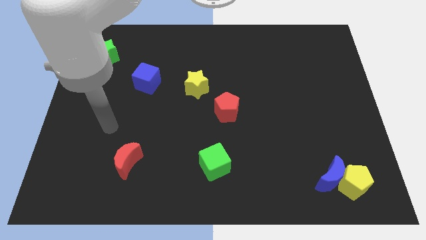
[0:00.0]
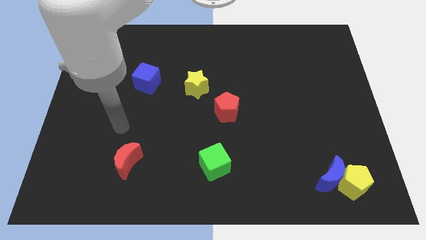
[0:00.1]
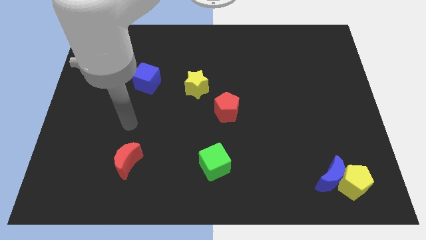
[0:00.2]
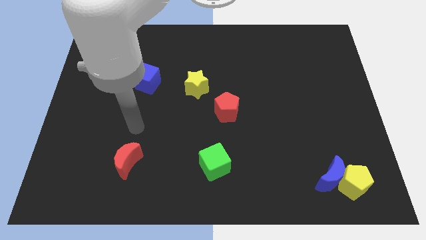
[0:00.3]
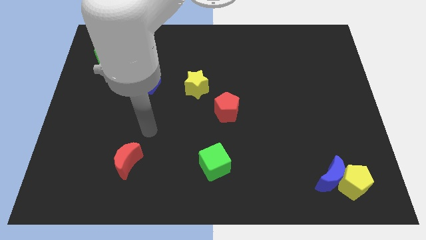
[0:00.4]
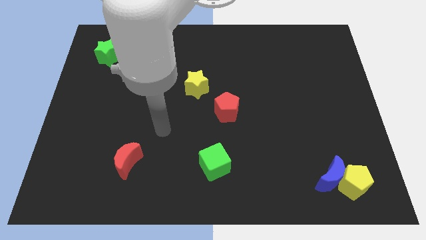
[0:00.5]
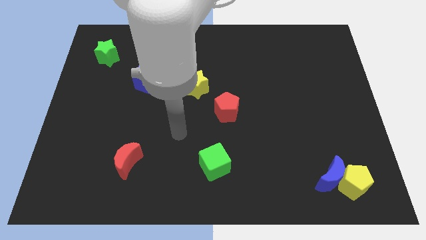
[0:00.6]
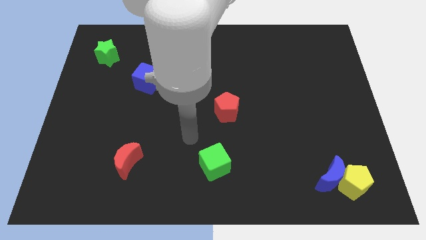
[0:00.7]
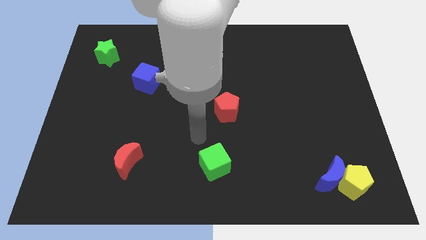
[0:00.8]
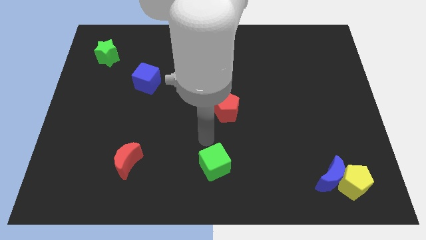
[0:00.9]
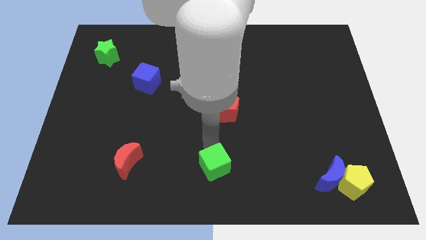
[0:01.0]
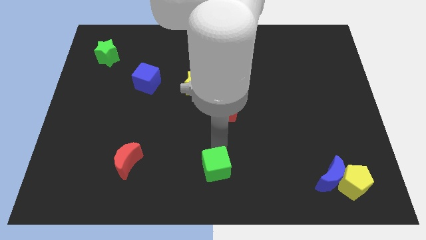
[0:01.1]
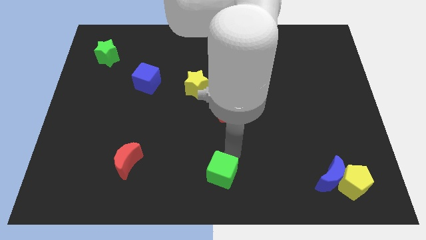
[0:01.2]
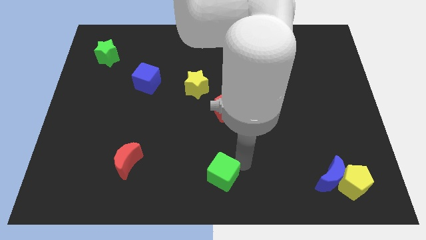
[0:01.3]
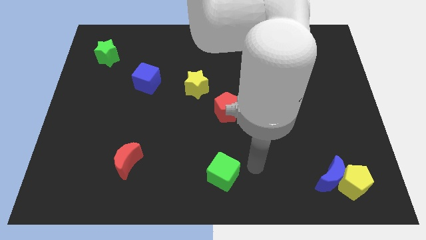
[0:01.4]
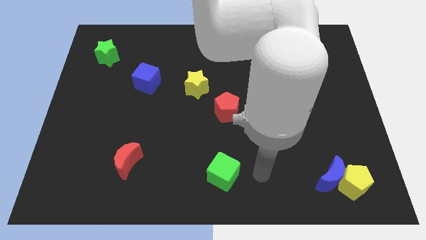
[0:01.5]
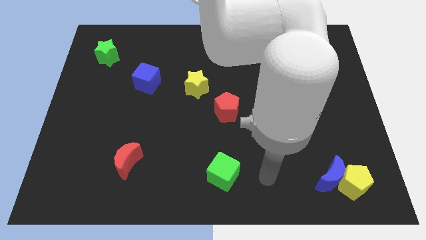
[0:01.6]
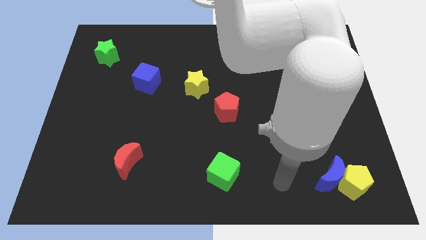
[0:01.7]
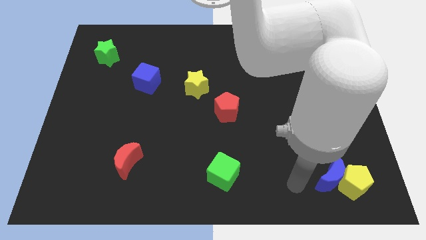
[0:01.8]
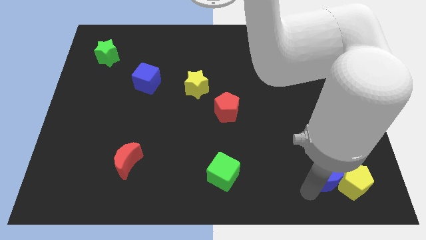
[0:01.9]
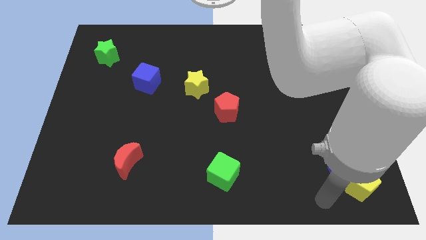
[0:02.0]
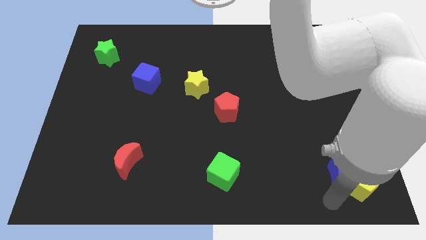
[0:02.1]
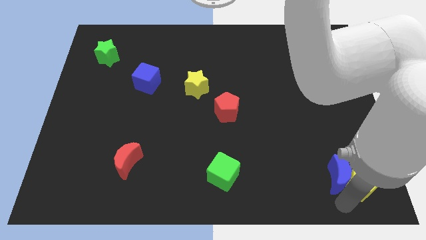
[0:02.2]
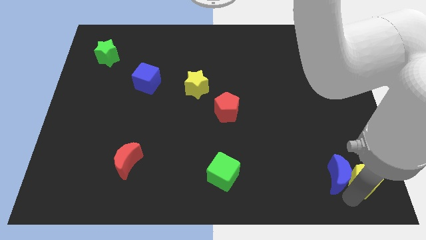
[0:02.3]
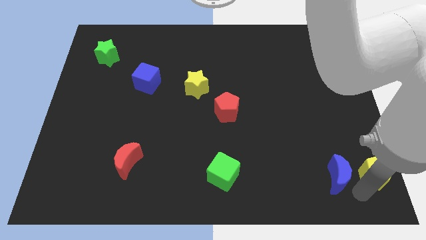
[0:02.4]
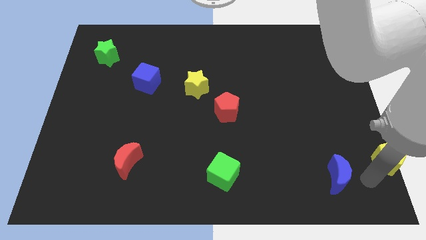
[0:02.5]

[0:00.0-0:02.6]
move the blue moon away from the yellow pentagon

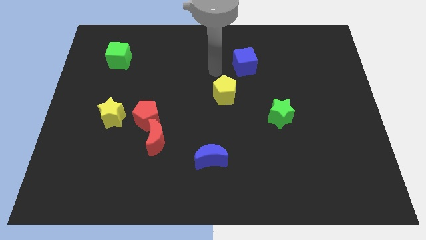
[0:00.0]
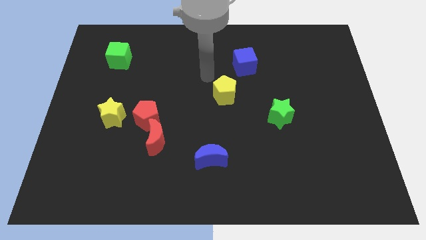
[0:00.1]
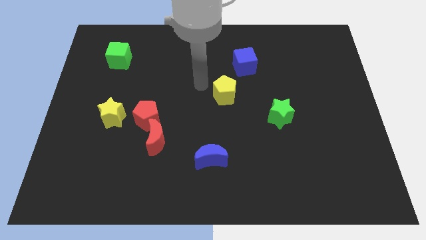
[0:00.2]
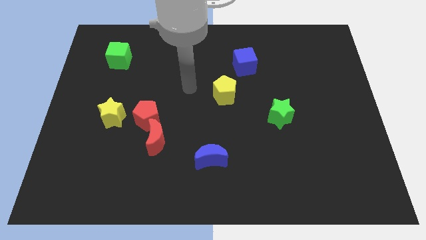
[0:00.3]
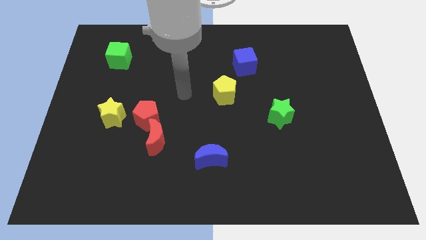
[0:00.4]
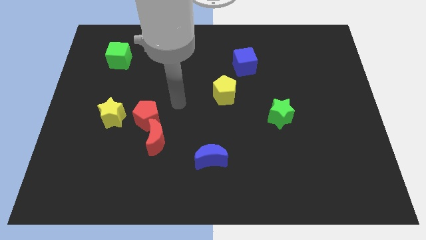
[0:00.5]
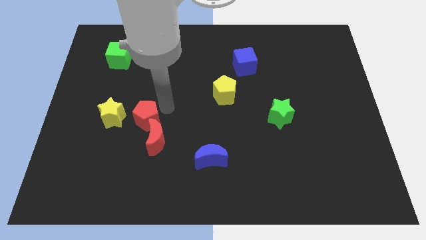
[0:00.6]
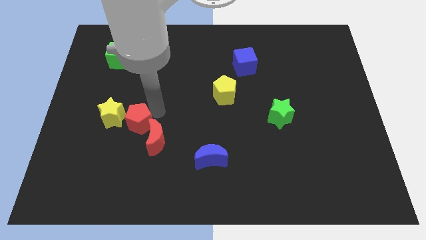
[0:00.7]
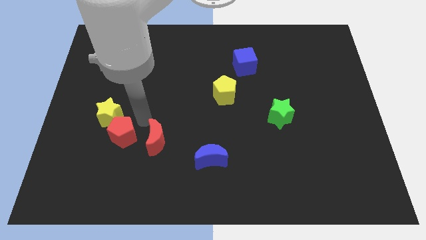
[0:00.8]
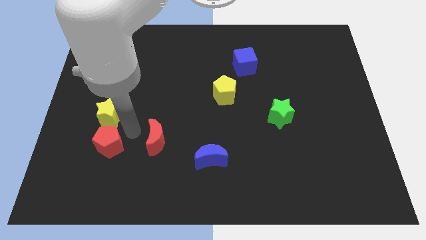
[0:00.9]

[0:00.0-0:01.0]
move the red moon away from the red pentagon

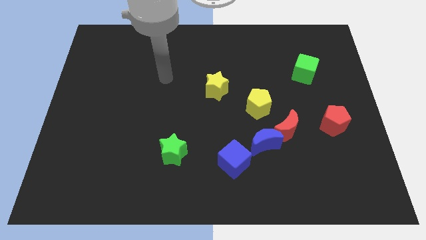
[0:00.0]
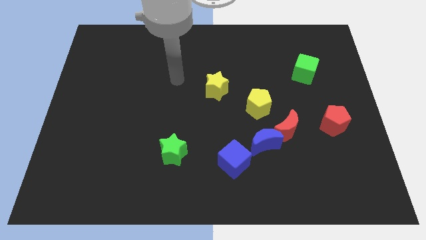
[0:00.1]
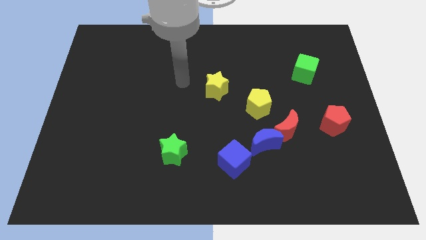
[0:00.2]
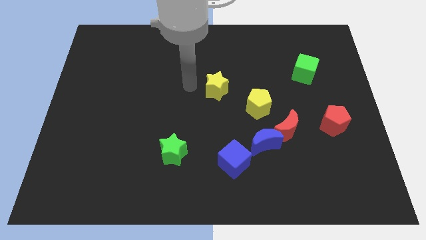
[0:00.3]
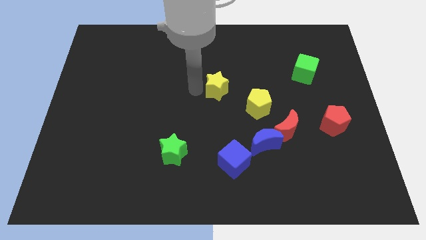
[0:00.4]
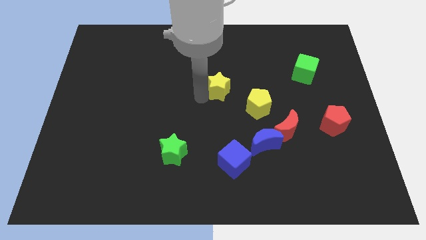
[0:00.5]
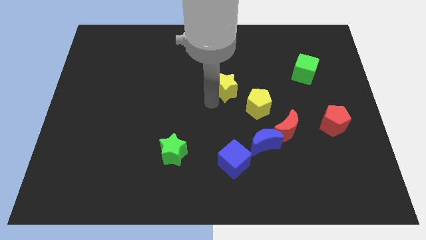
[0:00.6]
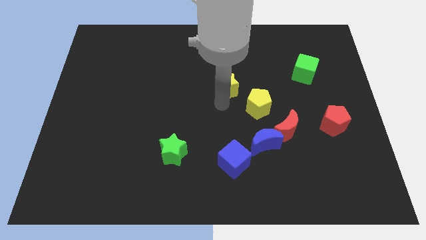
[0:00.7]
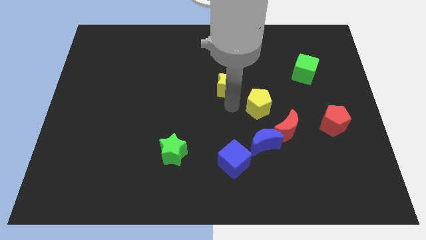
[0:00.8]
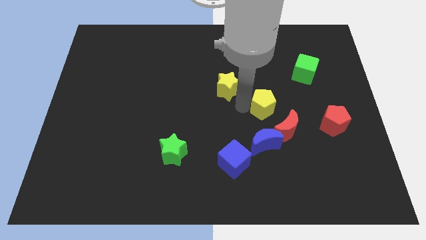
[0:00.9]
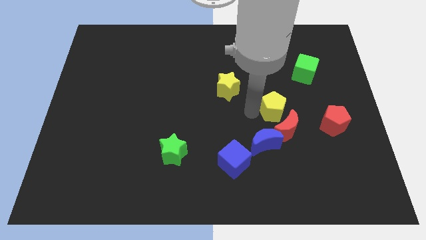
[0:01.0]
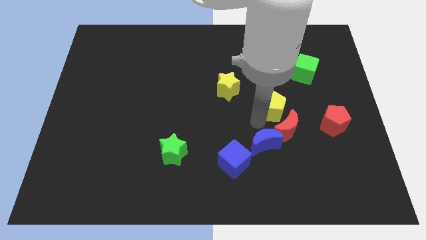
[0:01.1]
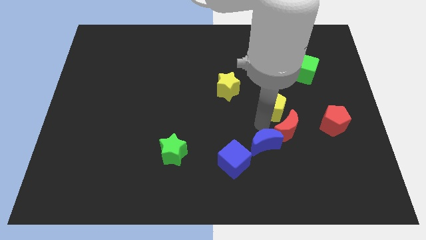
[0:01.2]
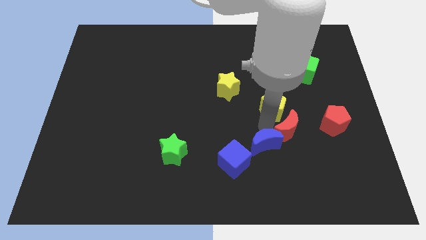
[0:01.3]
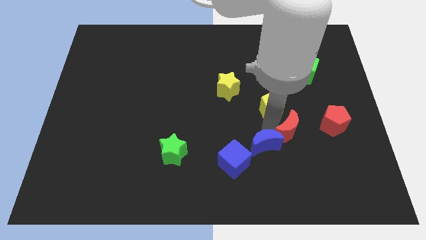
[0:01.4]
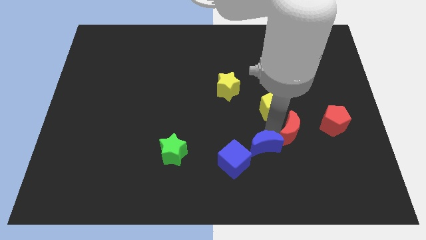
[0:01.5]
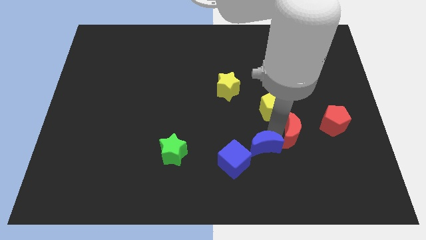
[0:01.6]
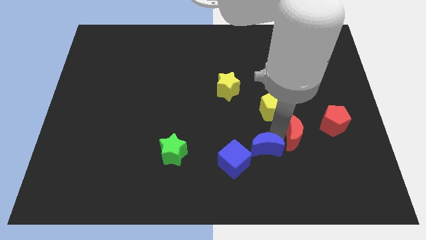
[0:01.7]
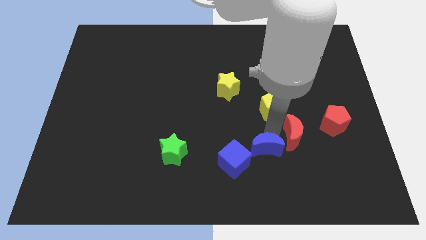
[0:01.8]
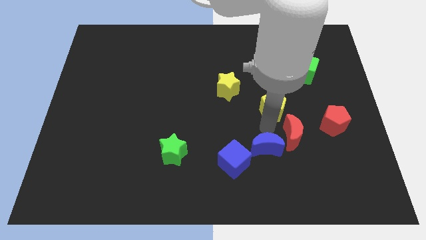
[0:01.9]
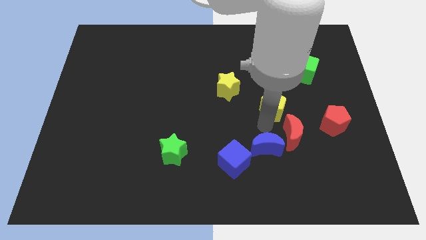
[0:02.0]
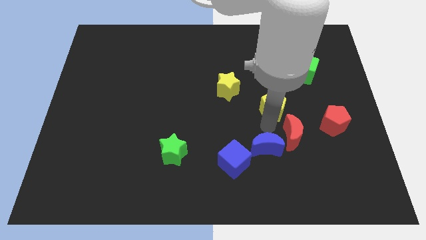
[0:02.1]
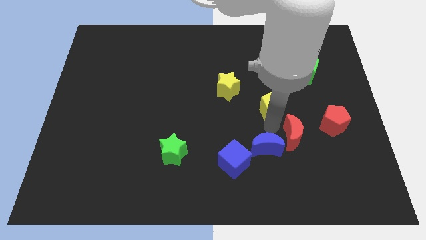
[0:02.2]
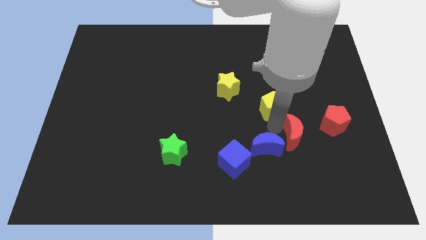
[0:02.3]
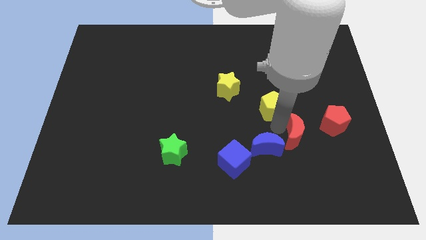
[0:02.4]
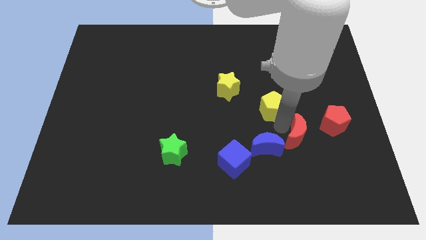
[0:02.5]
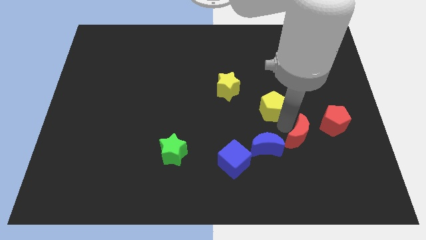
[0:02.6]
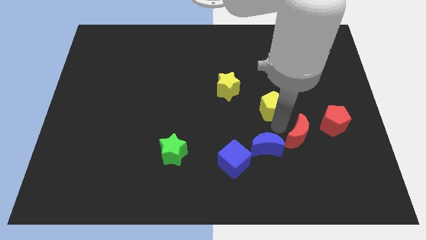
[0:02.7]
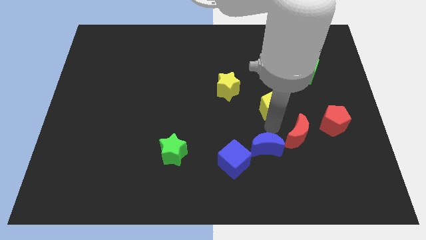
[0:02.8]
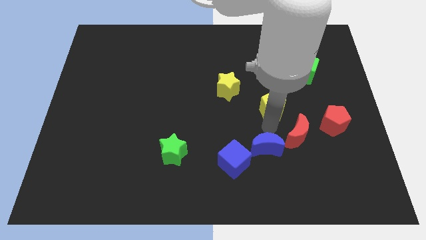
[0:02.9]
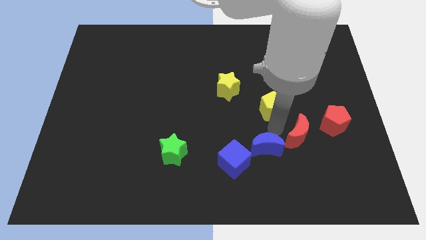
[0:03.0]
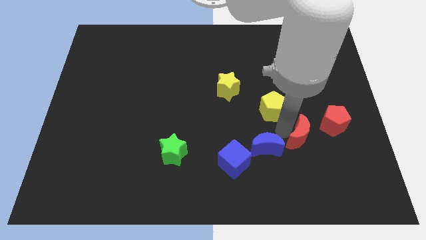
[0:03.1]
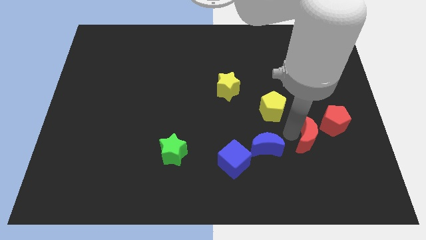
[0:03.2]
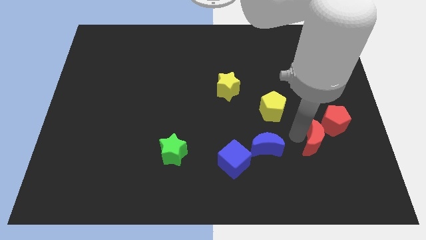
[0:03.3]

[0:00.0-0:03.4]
separate the red moon from the blue moon and yellow pentagon

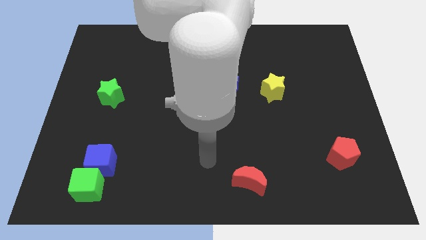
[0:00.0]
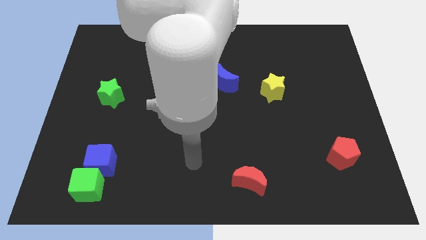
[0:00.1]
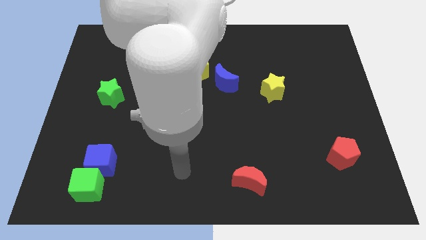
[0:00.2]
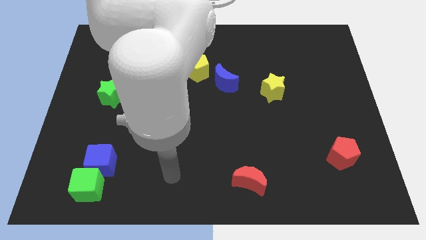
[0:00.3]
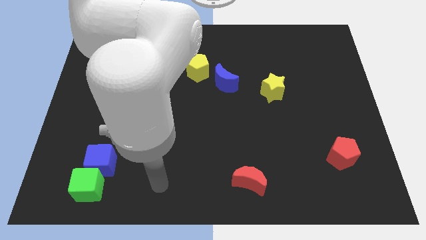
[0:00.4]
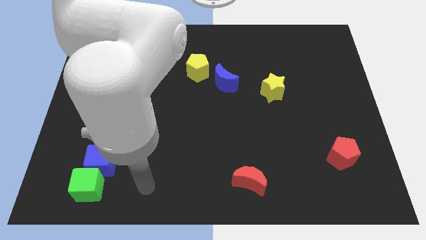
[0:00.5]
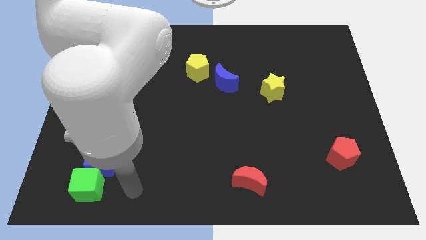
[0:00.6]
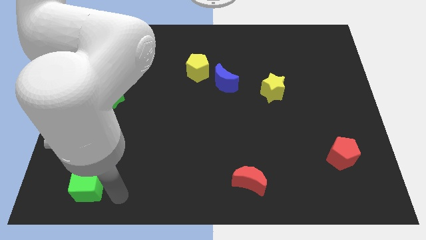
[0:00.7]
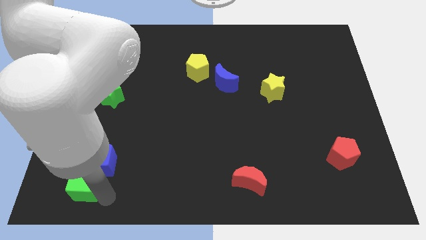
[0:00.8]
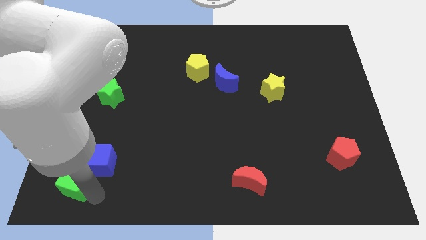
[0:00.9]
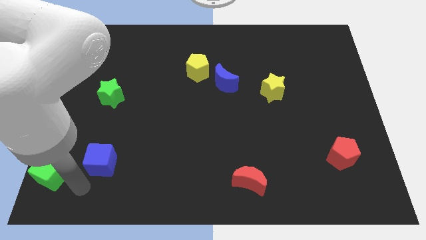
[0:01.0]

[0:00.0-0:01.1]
separate the blue cube from the green cube

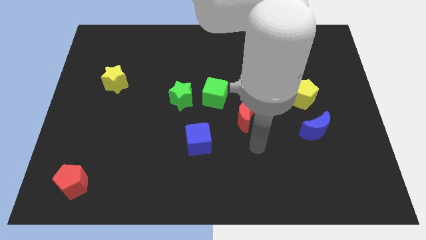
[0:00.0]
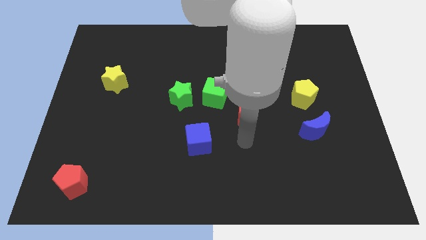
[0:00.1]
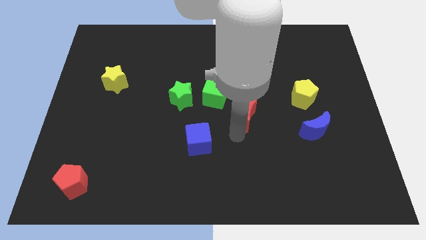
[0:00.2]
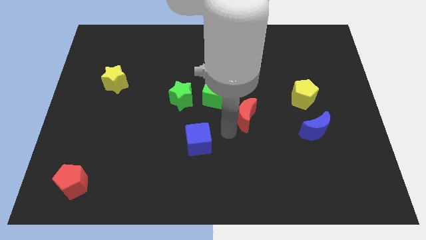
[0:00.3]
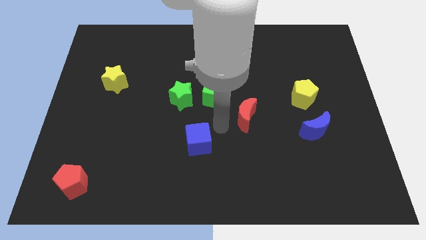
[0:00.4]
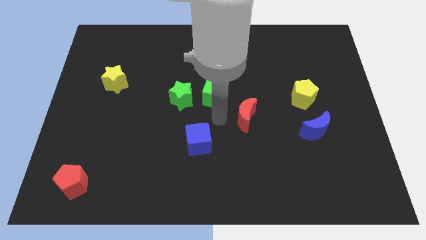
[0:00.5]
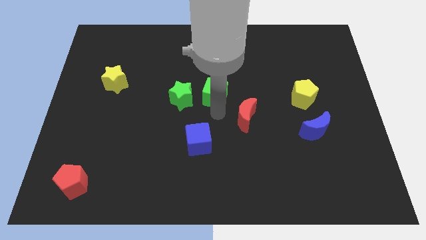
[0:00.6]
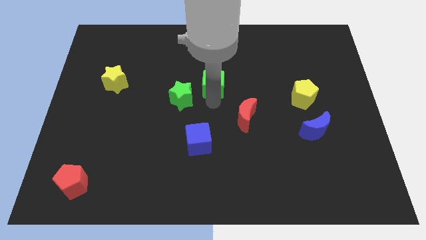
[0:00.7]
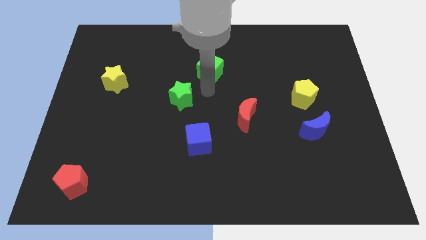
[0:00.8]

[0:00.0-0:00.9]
pull the green star apart from the green cube
